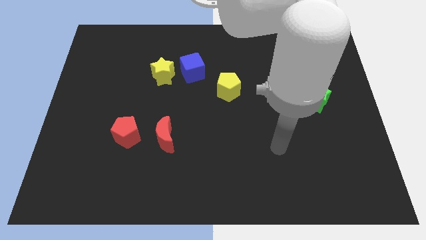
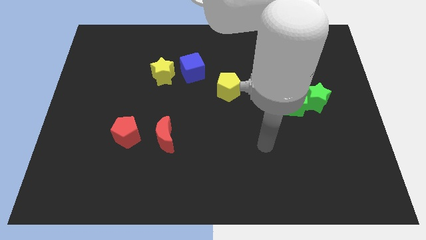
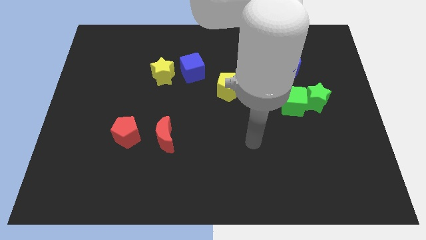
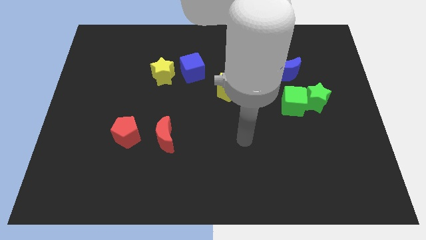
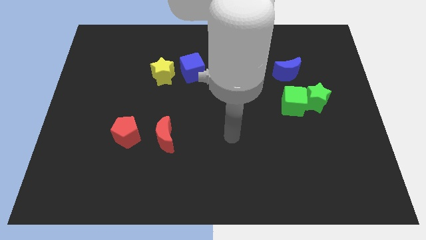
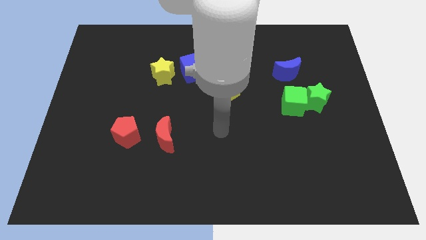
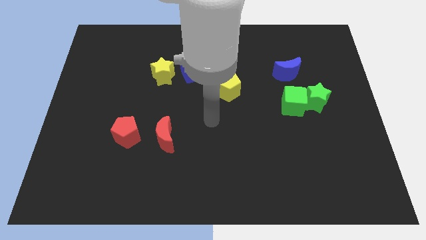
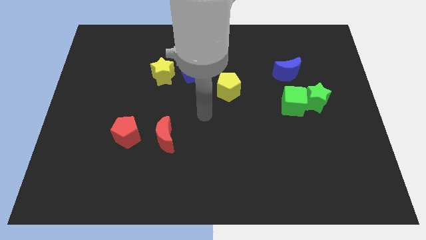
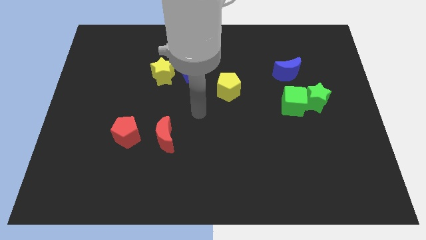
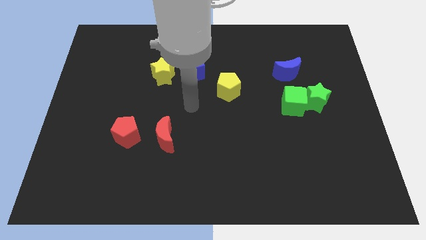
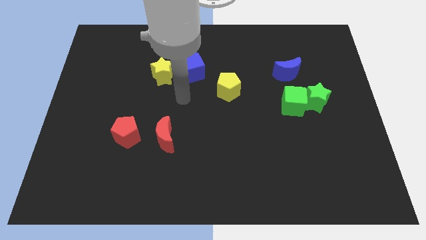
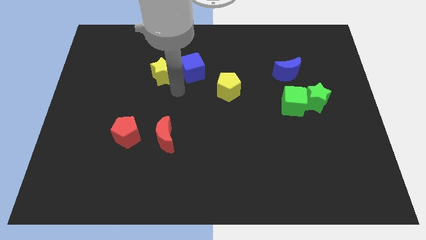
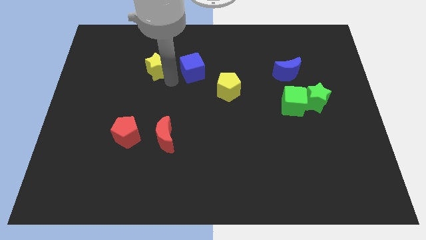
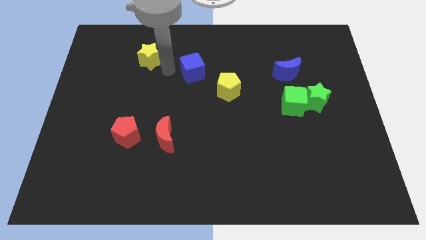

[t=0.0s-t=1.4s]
pull the blue cube apart from the yellow star

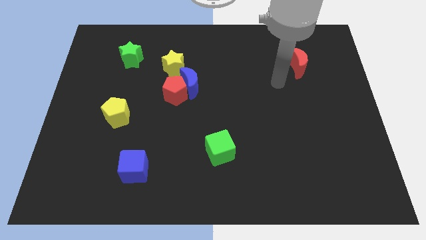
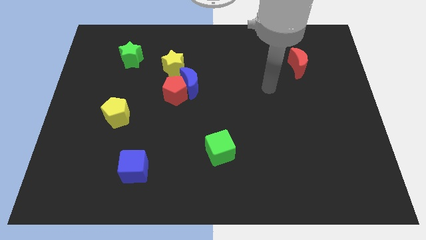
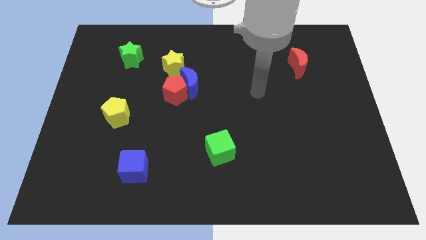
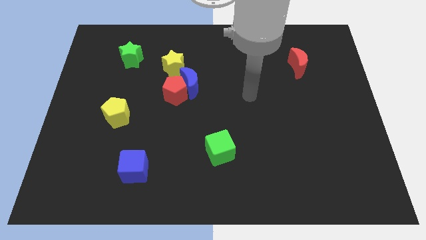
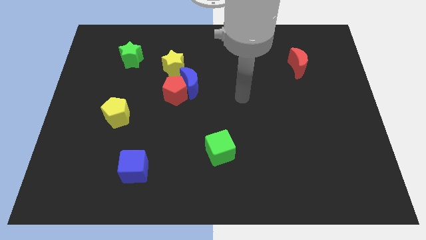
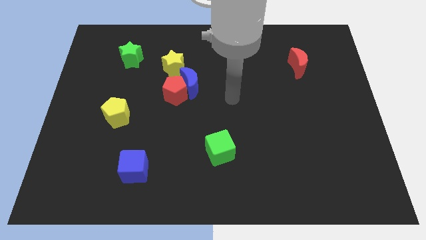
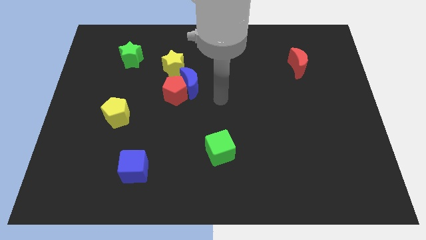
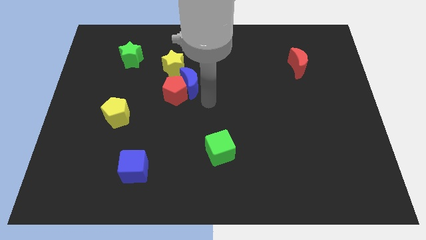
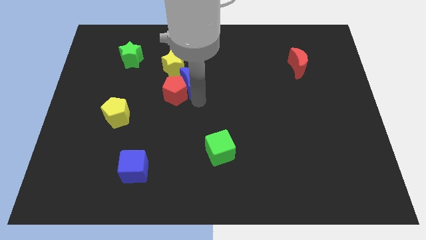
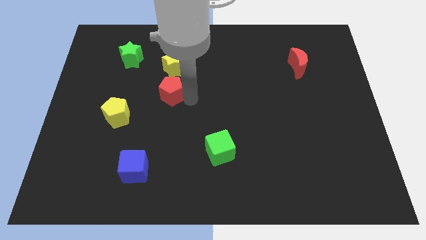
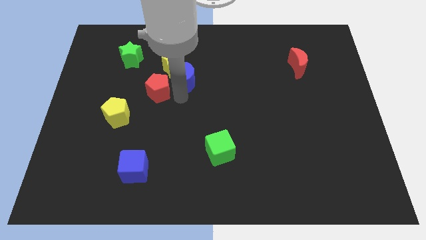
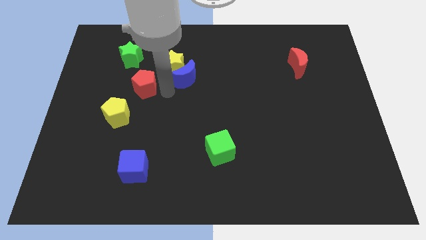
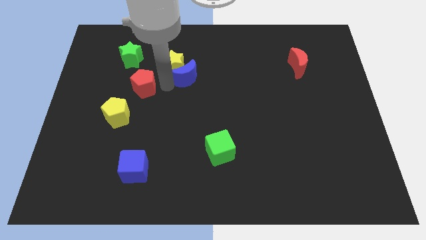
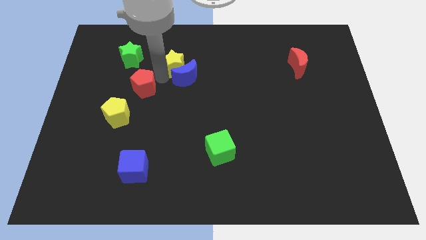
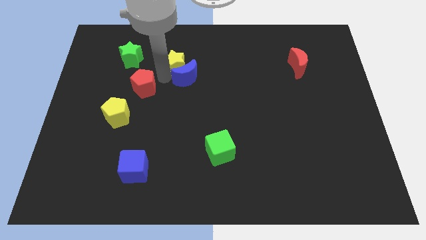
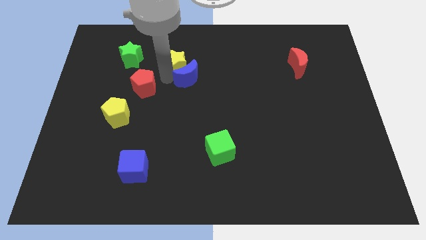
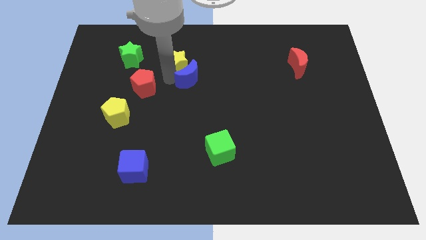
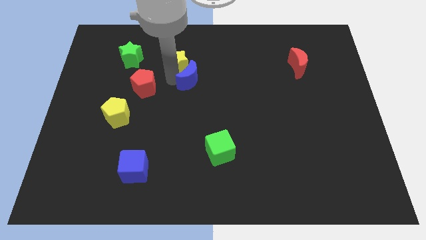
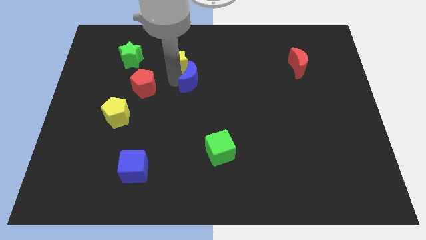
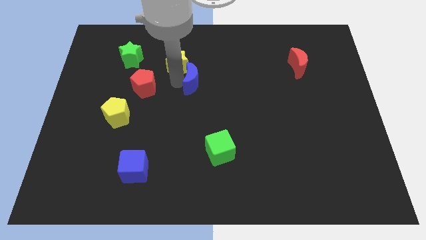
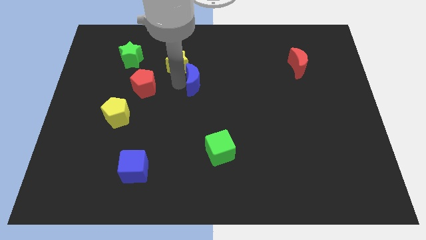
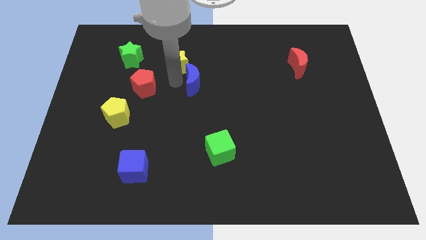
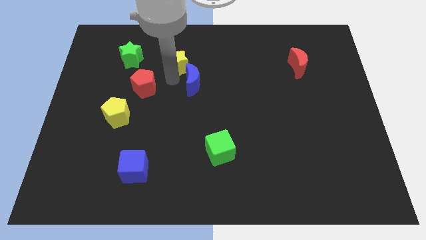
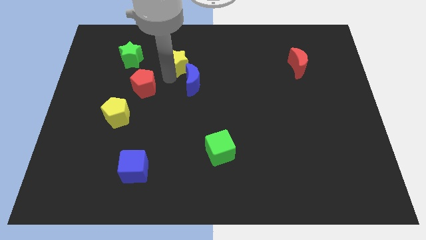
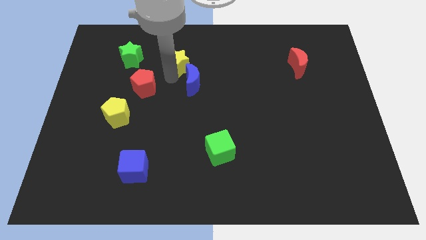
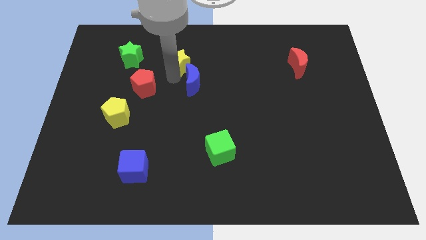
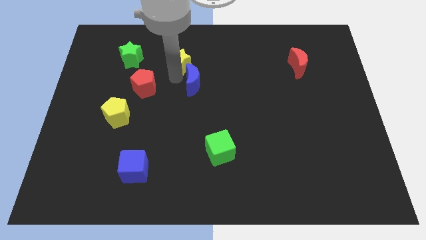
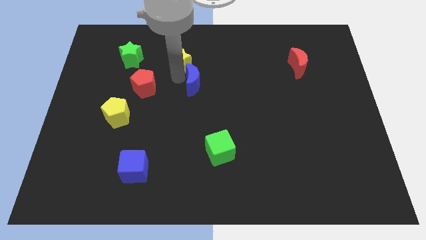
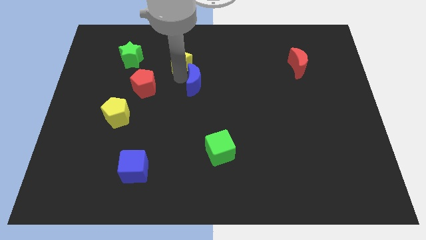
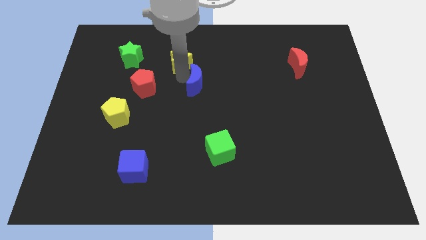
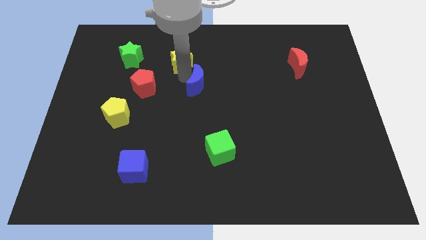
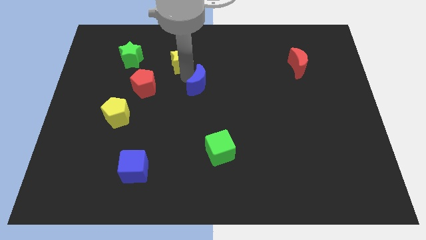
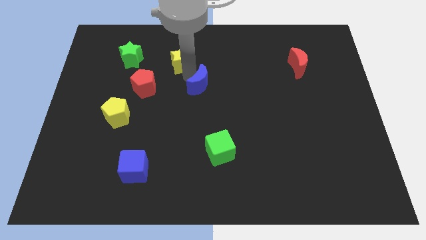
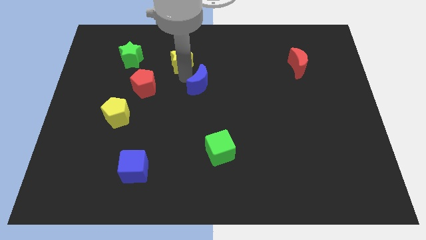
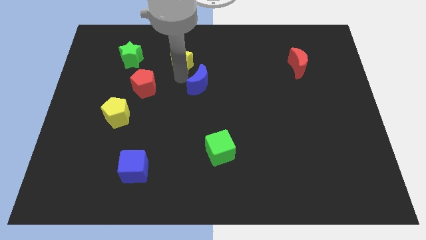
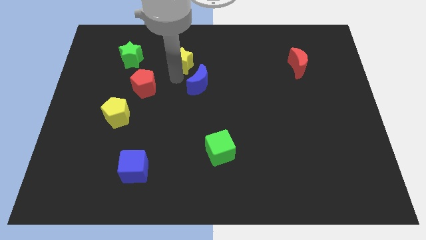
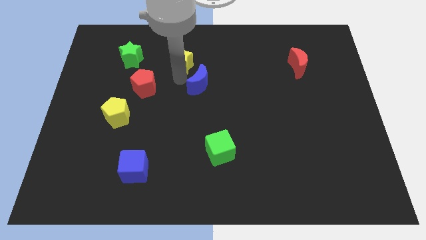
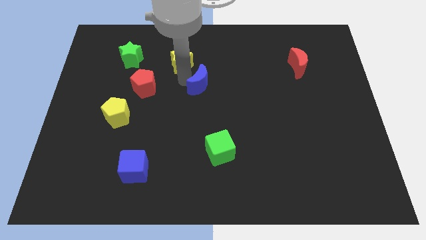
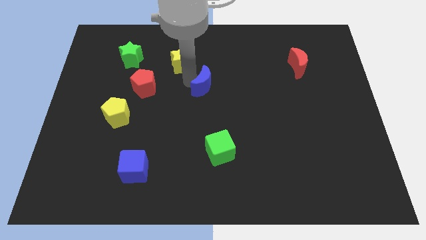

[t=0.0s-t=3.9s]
separate the blue moon from the red pentagon and yellow star

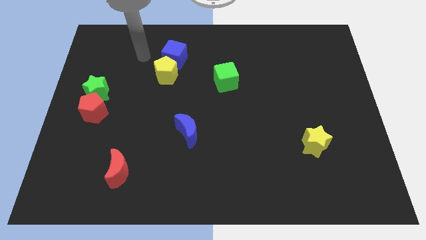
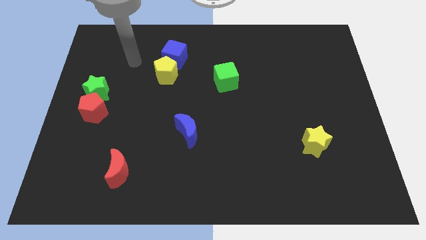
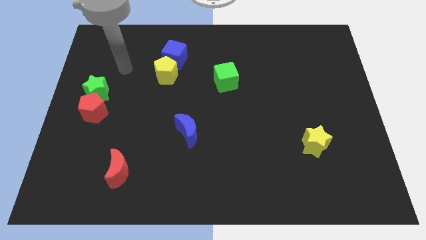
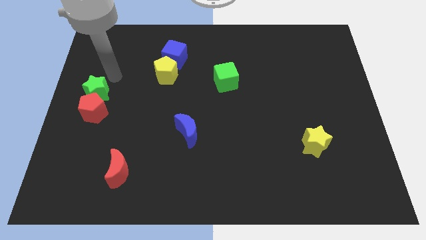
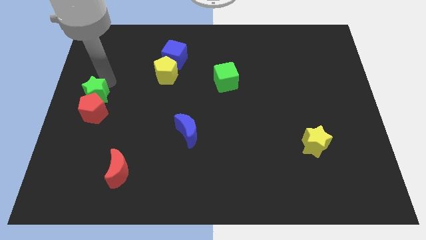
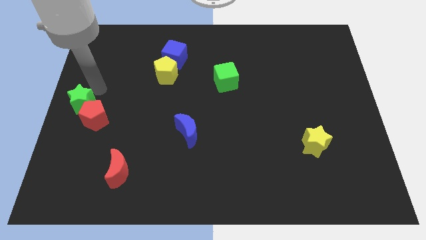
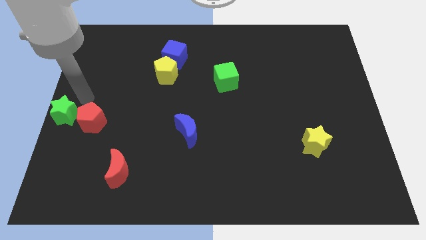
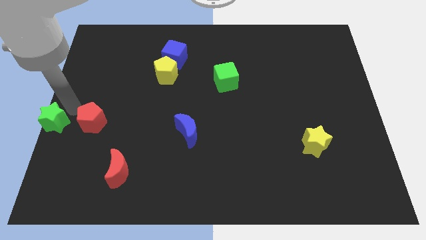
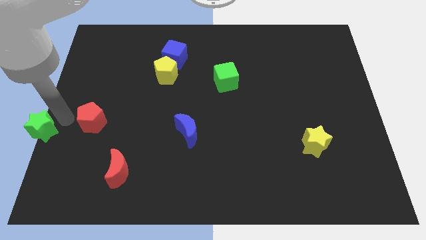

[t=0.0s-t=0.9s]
pull the red pentagon apart from the green star

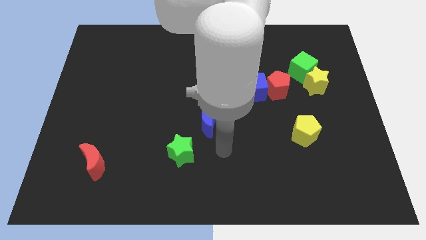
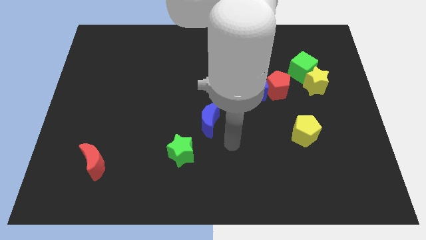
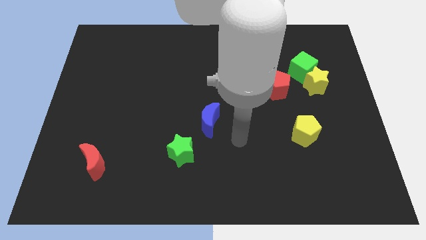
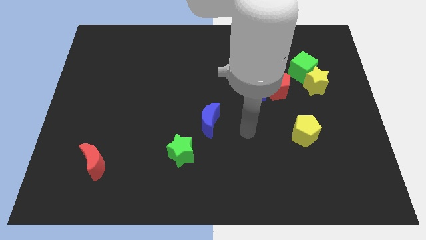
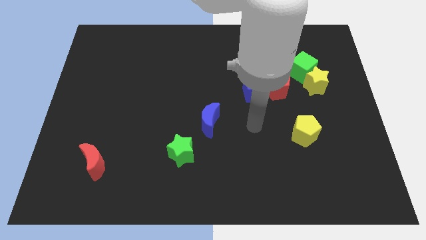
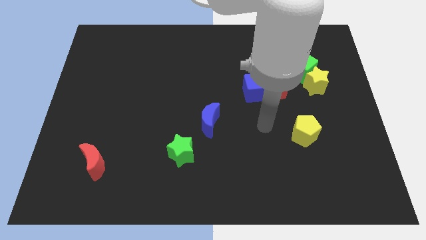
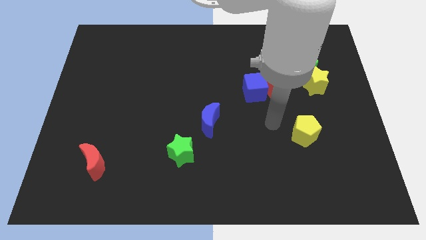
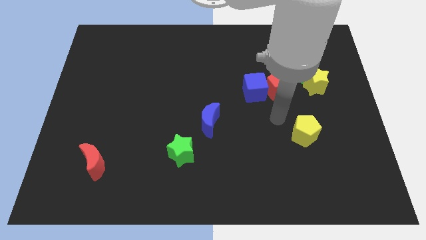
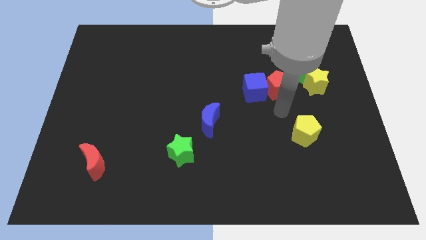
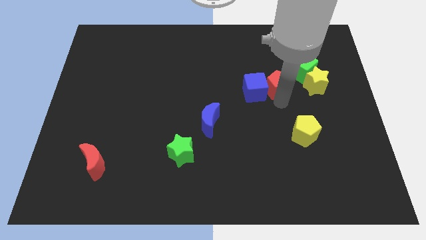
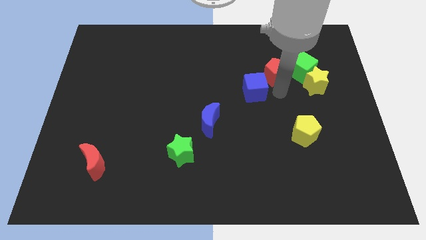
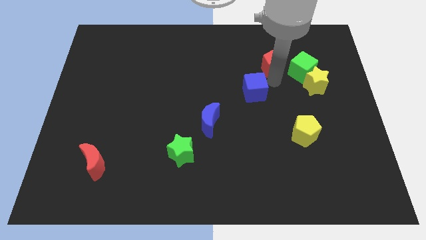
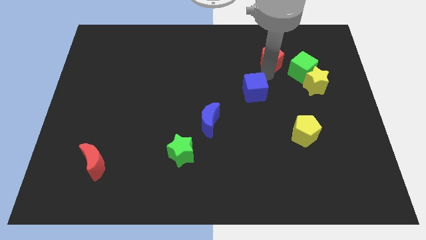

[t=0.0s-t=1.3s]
move the blue cube away from the red pentagon

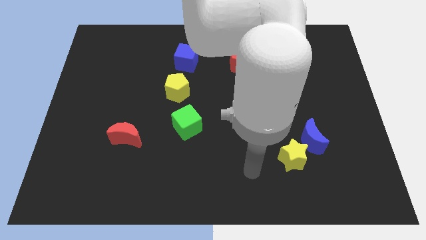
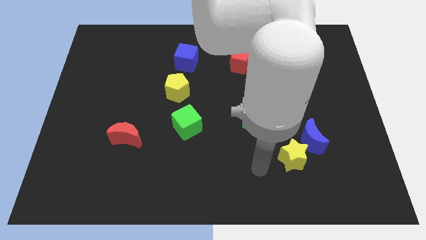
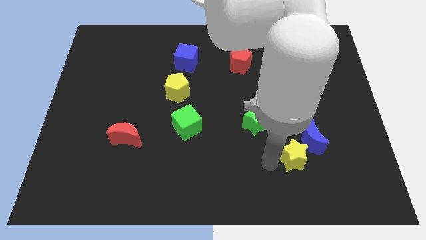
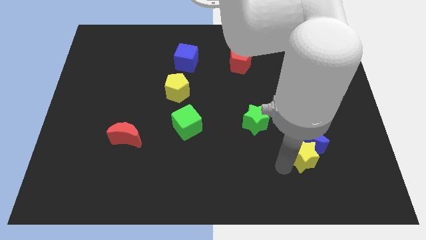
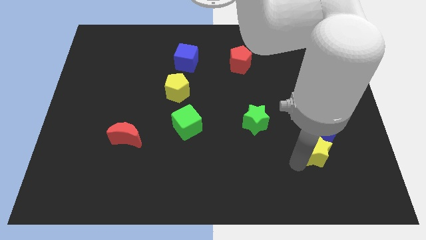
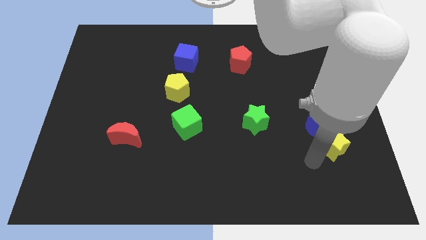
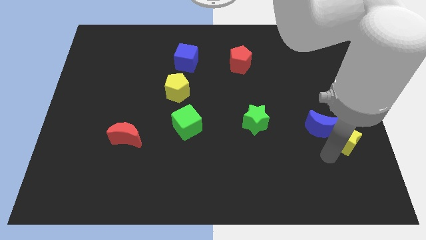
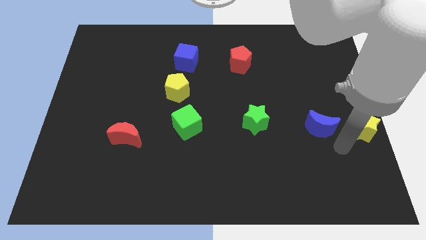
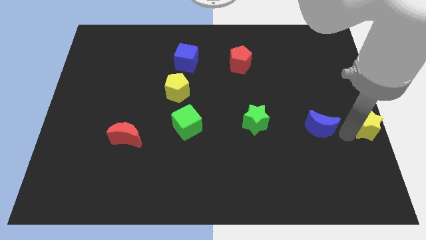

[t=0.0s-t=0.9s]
move the blue moon away from the yellow star

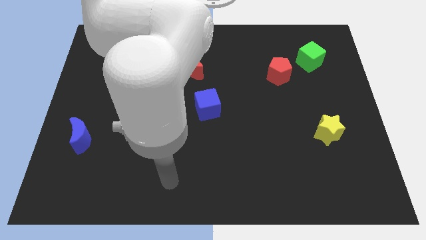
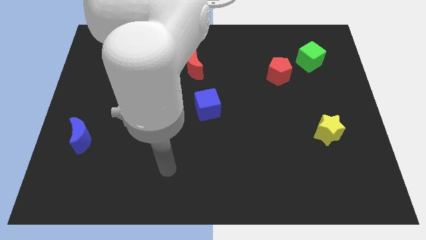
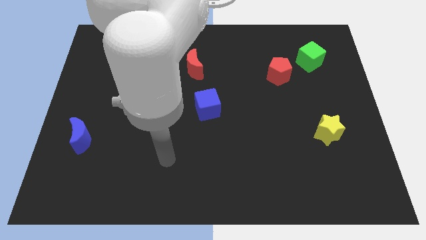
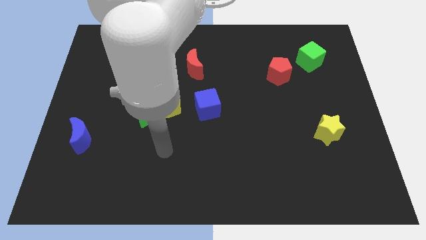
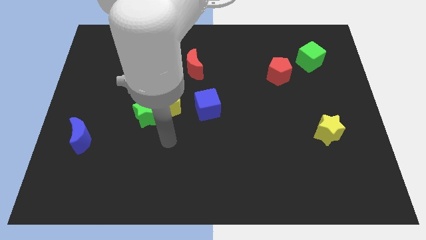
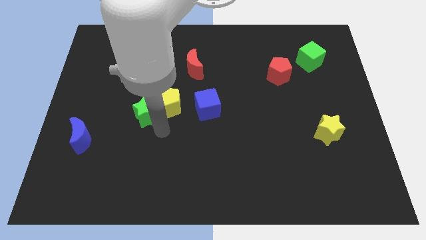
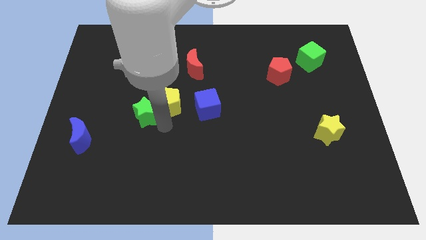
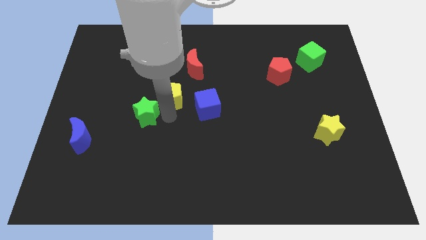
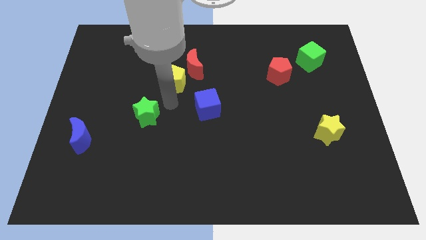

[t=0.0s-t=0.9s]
move the green star away from the yellow pentagon

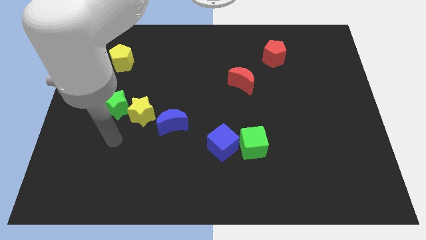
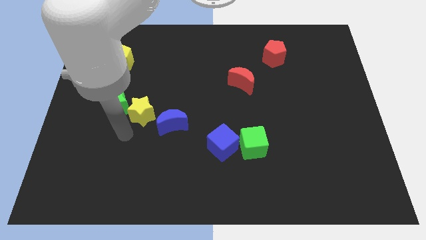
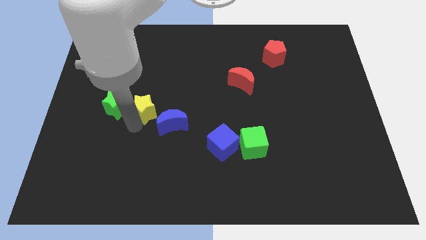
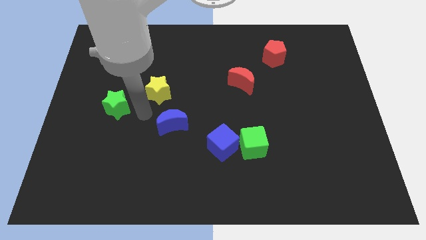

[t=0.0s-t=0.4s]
move the green star away from the yellow star
